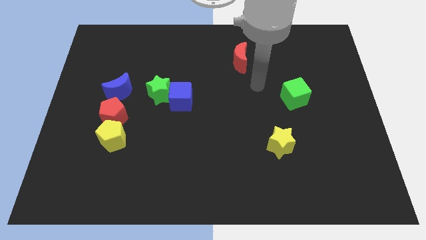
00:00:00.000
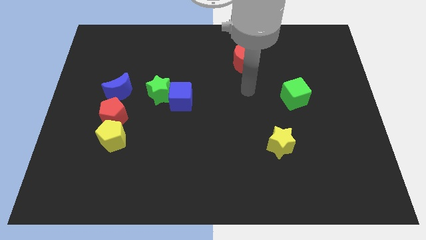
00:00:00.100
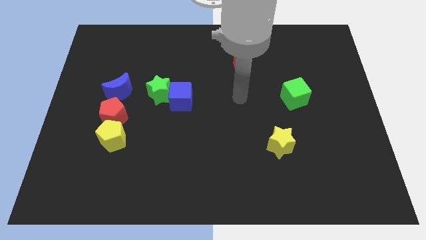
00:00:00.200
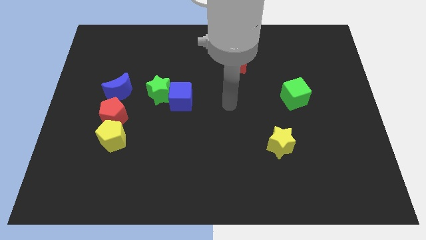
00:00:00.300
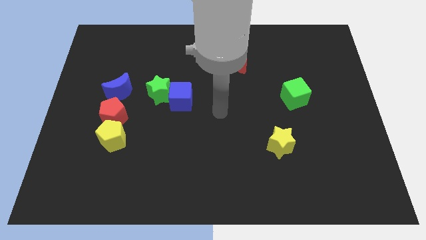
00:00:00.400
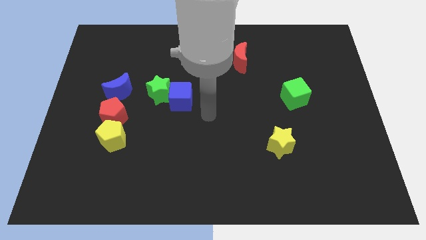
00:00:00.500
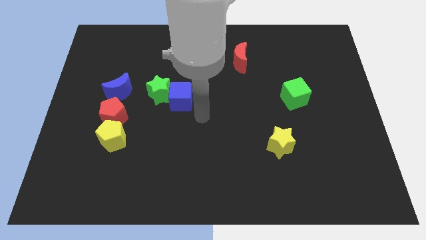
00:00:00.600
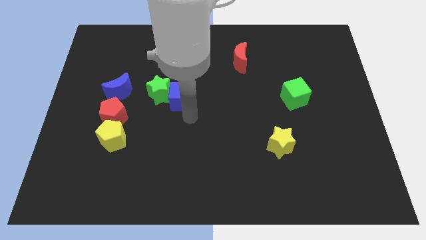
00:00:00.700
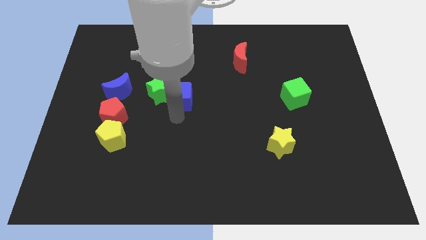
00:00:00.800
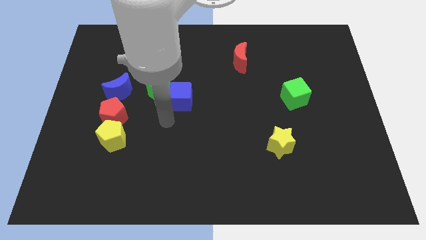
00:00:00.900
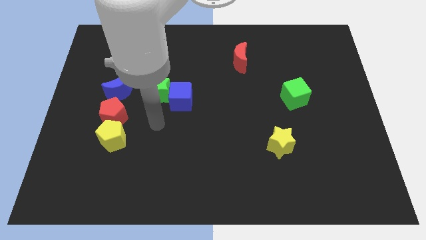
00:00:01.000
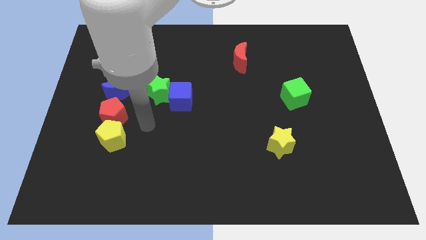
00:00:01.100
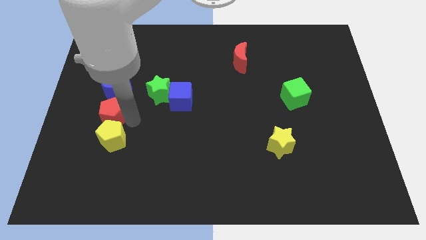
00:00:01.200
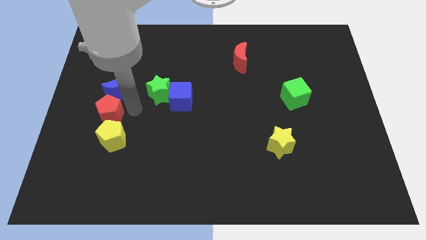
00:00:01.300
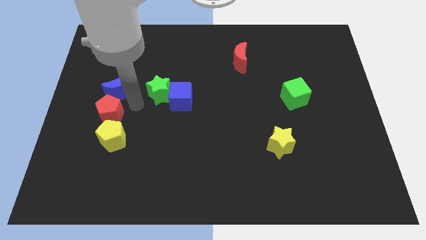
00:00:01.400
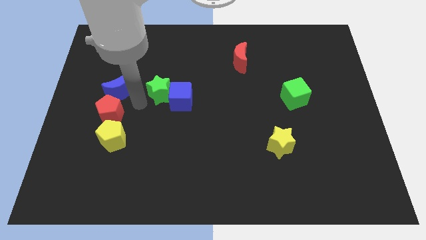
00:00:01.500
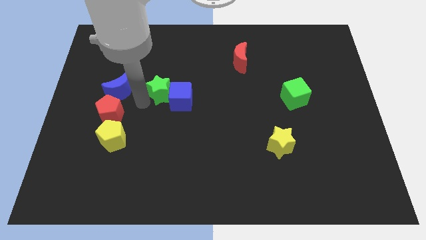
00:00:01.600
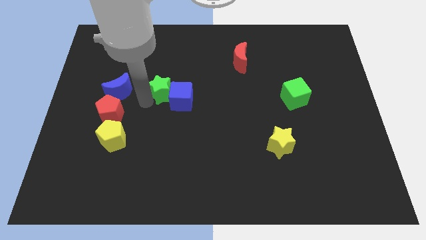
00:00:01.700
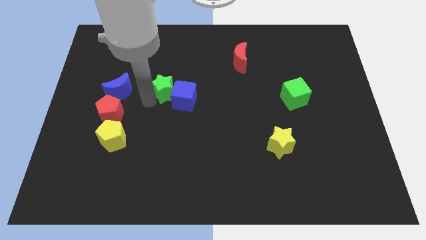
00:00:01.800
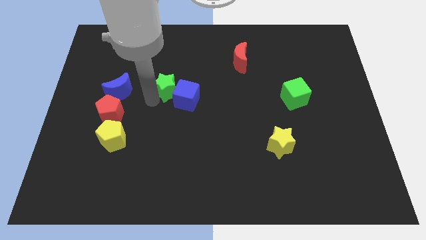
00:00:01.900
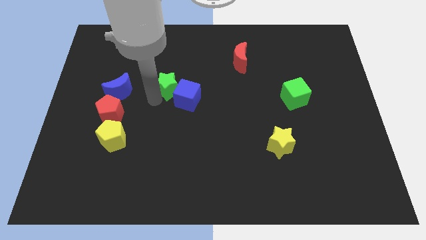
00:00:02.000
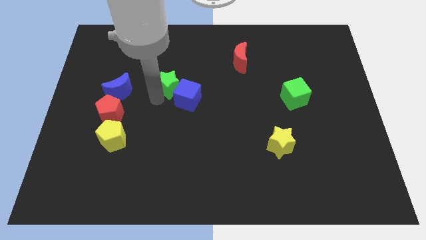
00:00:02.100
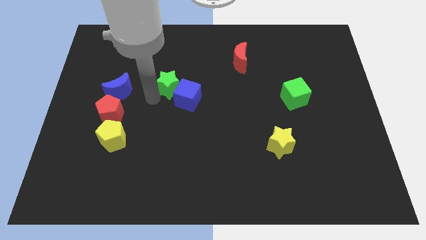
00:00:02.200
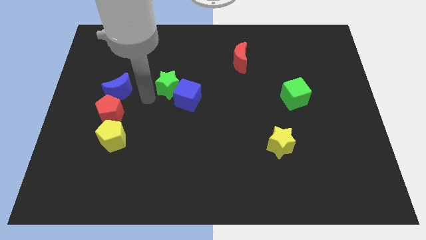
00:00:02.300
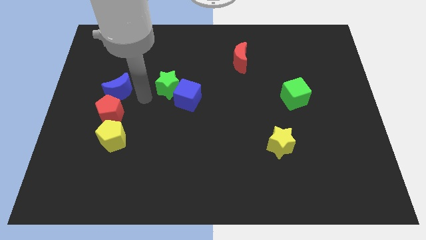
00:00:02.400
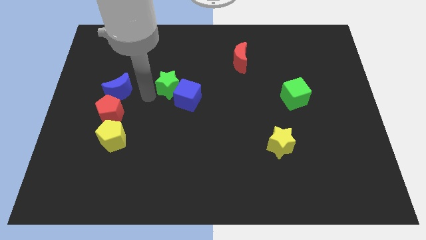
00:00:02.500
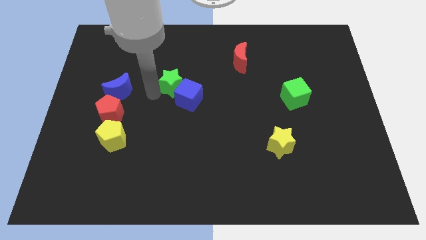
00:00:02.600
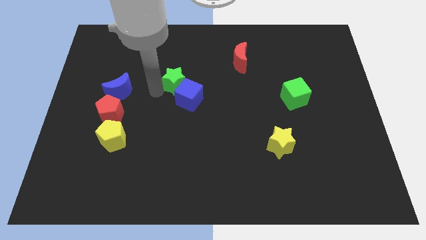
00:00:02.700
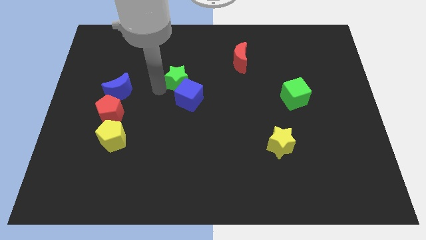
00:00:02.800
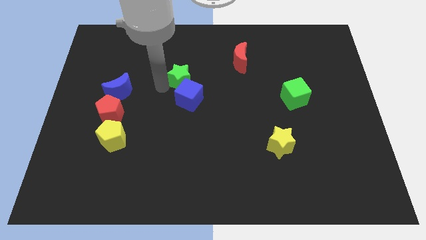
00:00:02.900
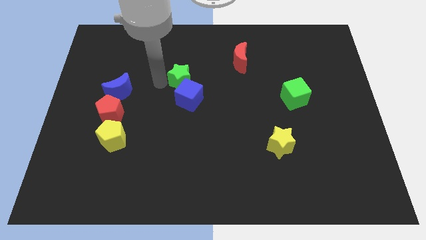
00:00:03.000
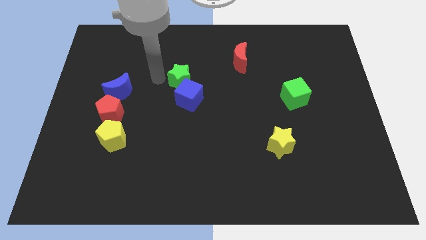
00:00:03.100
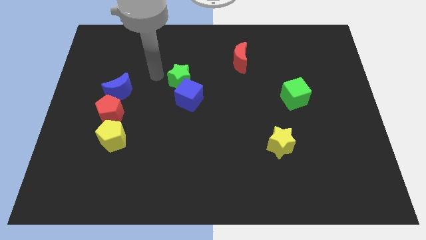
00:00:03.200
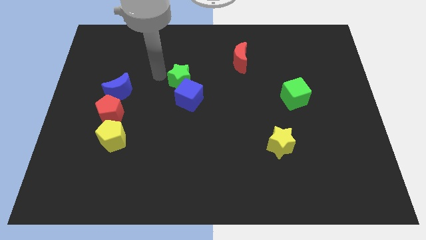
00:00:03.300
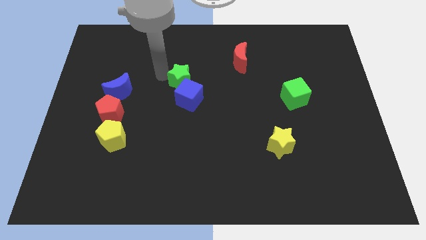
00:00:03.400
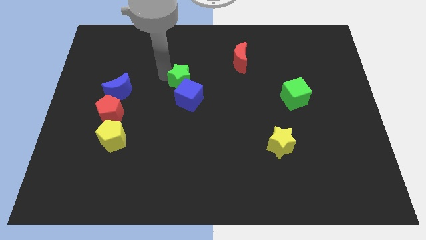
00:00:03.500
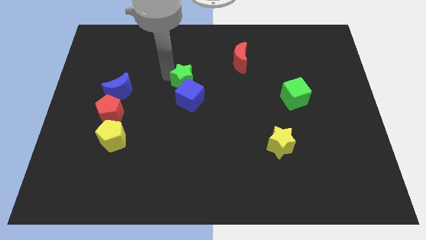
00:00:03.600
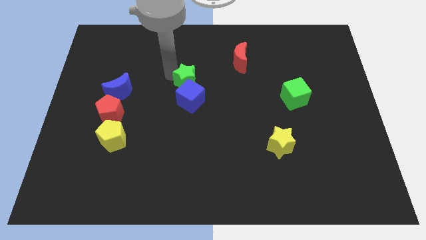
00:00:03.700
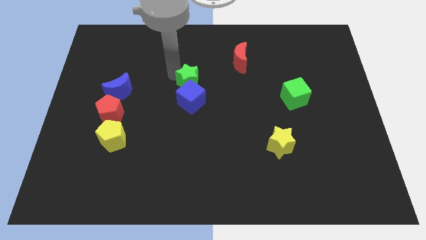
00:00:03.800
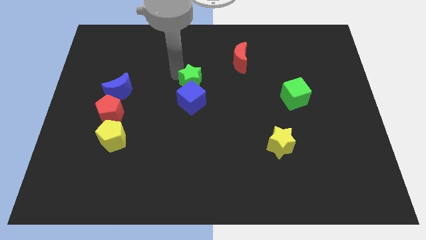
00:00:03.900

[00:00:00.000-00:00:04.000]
push the green star right slightly

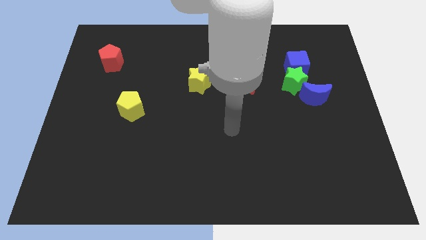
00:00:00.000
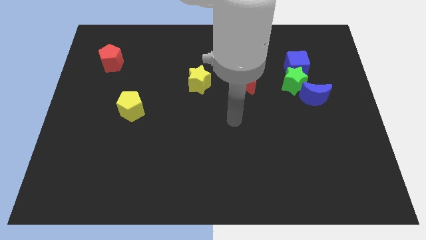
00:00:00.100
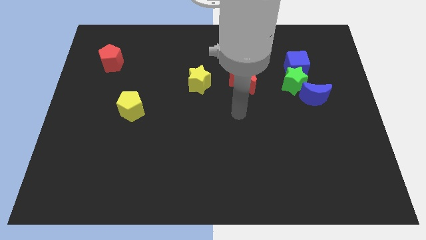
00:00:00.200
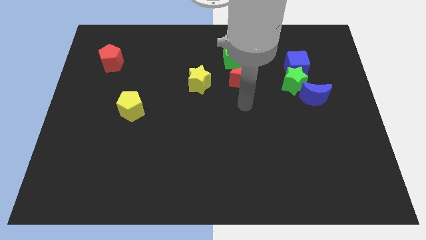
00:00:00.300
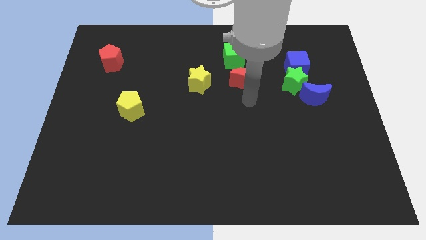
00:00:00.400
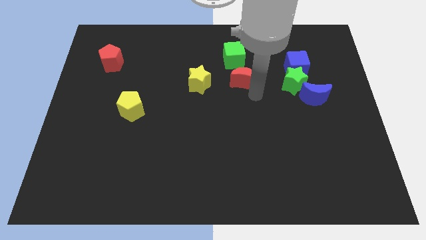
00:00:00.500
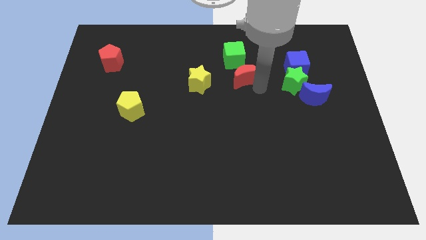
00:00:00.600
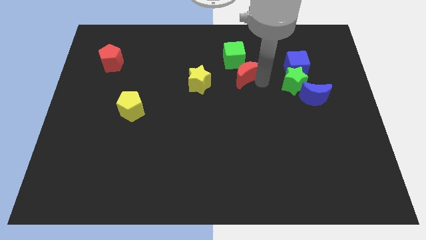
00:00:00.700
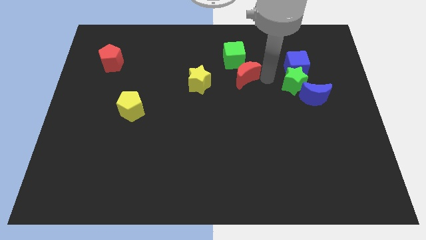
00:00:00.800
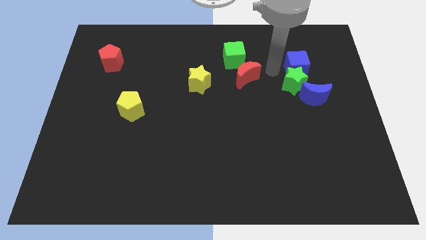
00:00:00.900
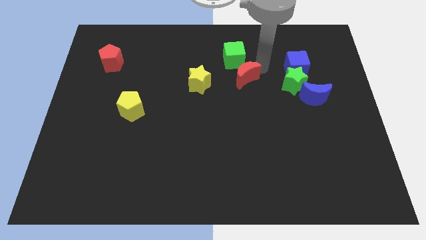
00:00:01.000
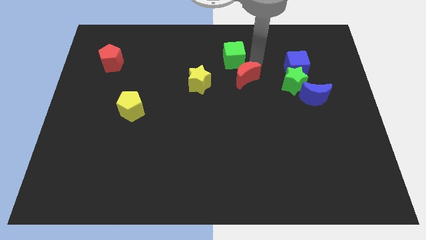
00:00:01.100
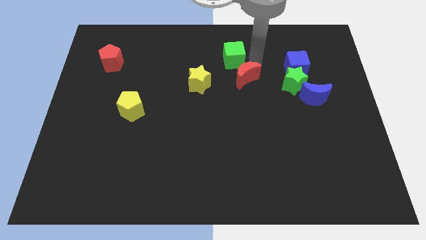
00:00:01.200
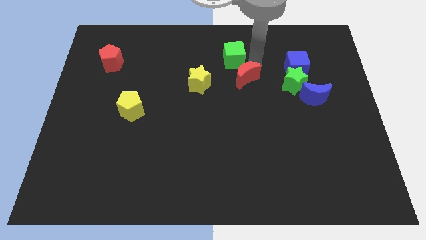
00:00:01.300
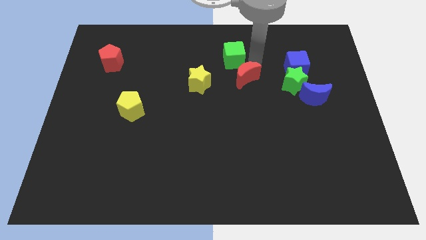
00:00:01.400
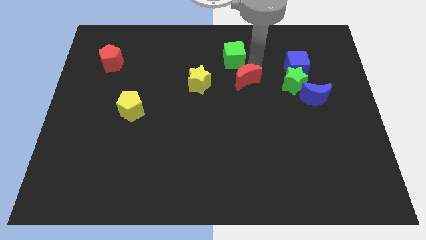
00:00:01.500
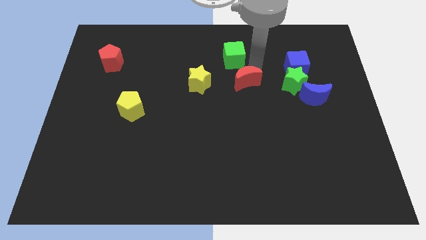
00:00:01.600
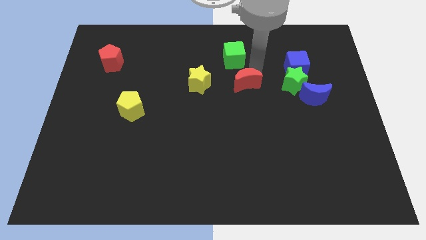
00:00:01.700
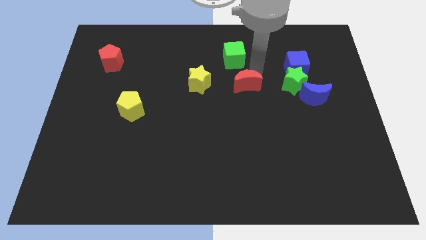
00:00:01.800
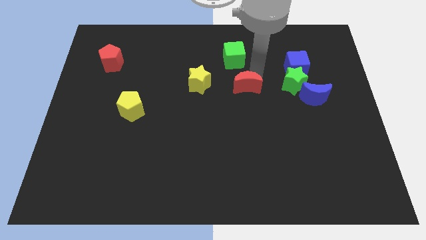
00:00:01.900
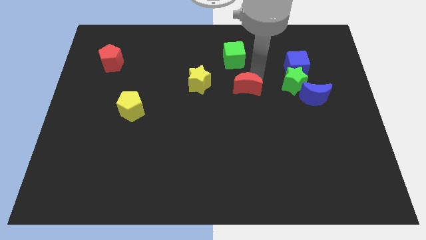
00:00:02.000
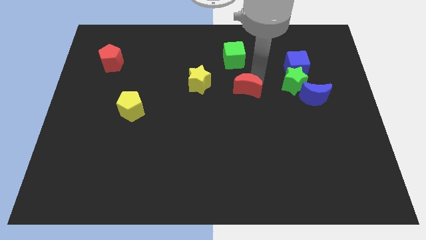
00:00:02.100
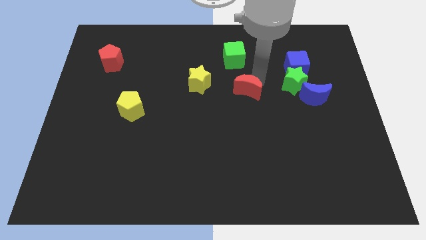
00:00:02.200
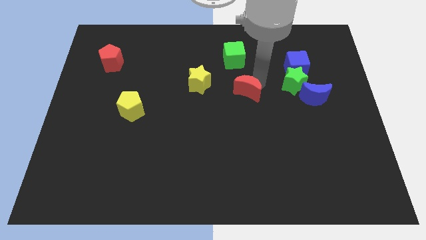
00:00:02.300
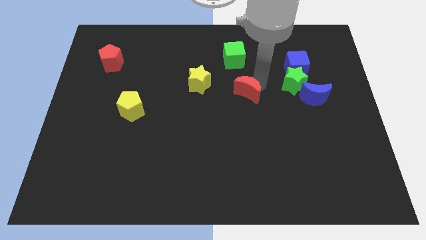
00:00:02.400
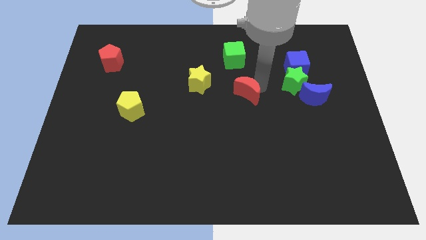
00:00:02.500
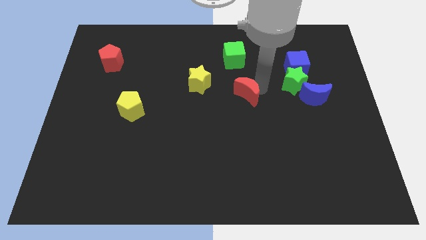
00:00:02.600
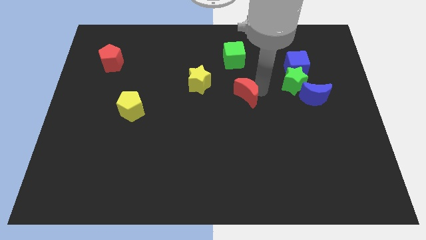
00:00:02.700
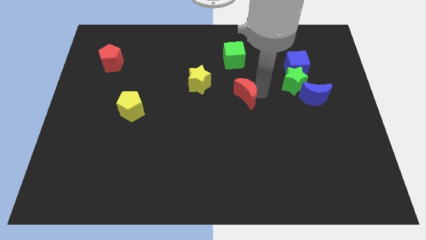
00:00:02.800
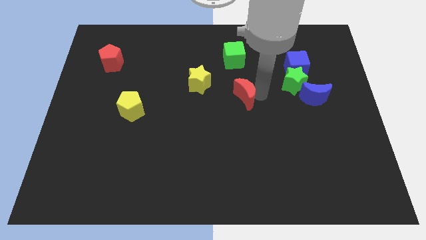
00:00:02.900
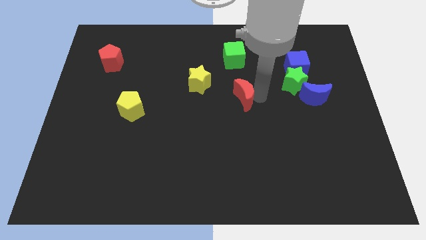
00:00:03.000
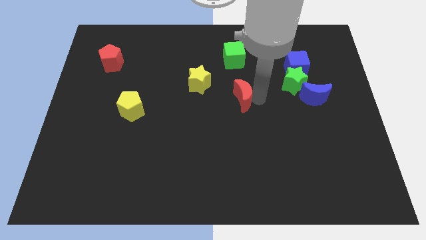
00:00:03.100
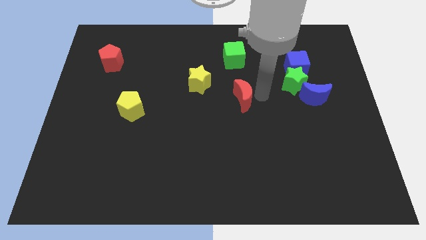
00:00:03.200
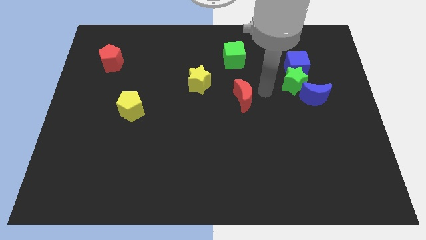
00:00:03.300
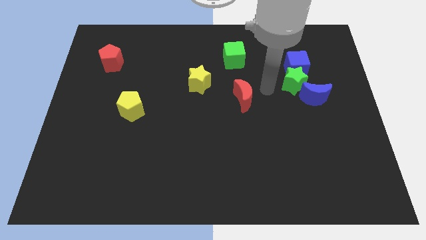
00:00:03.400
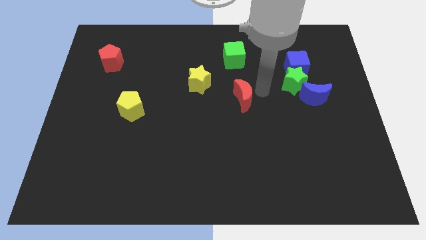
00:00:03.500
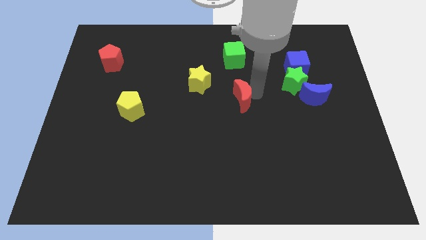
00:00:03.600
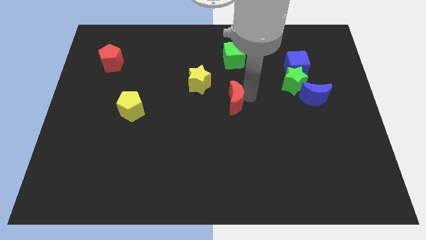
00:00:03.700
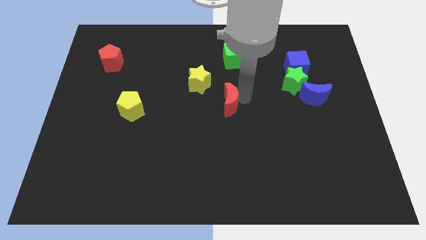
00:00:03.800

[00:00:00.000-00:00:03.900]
slightly push the red moon downwards and left diagonally

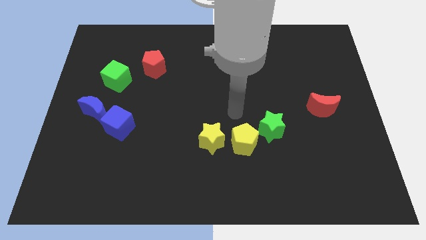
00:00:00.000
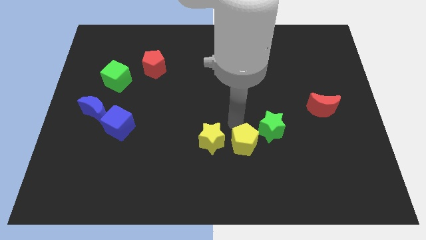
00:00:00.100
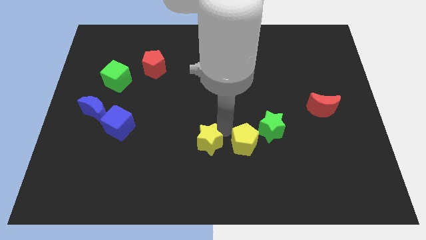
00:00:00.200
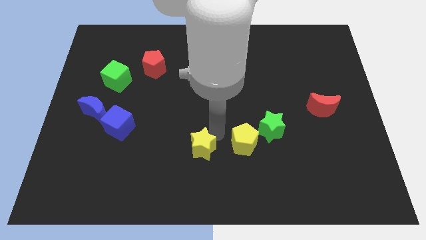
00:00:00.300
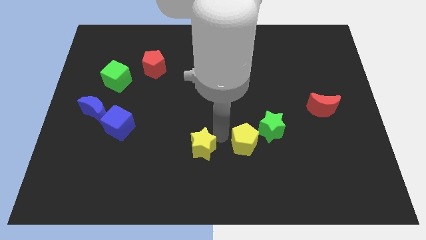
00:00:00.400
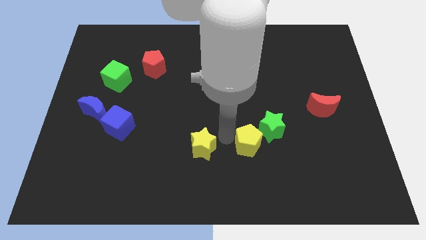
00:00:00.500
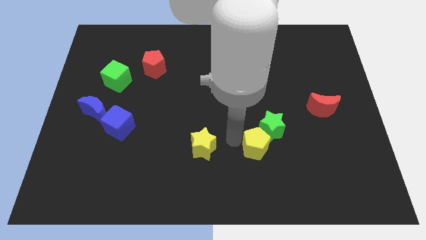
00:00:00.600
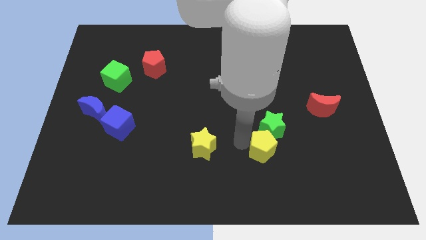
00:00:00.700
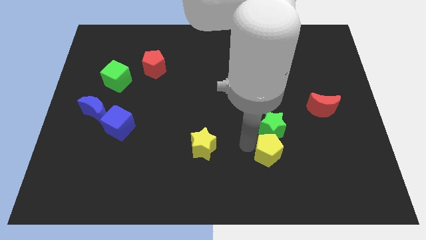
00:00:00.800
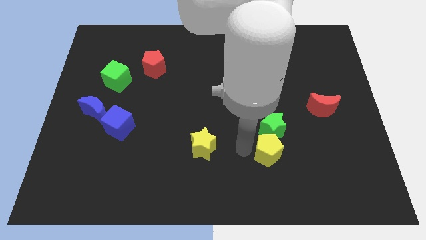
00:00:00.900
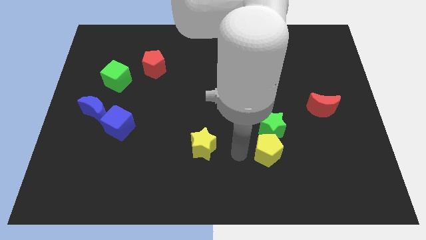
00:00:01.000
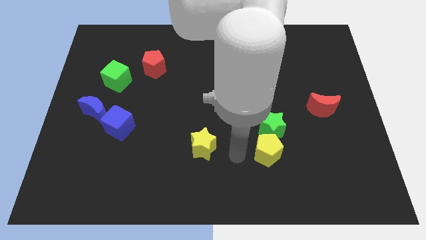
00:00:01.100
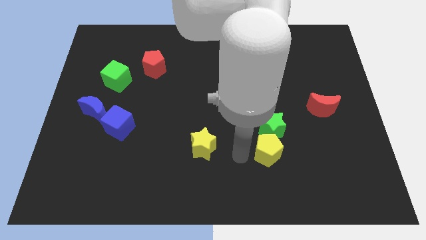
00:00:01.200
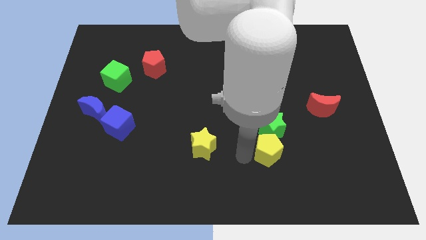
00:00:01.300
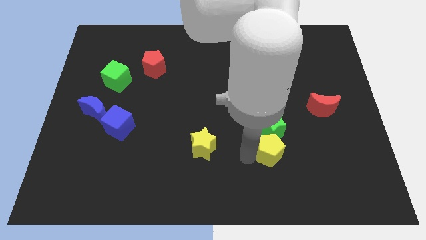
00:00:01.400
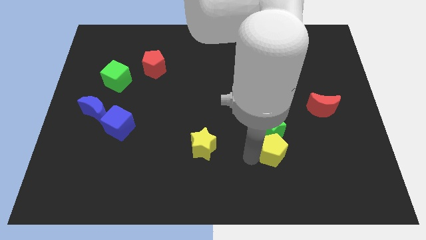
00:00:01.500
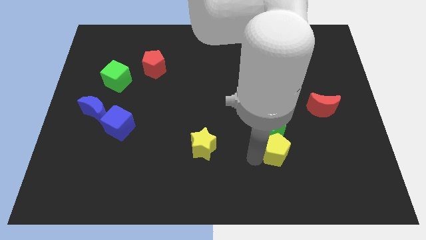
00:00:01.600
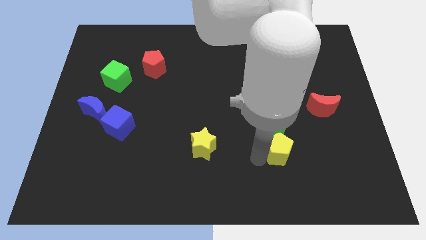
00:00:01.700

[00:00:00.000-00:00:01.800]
slide the yellow pentagon to the right a bit
